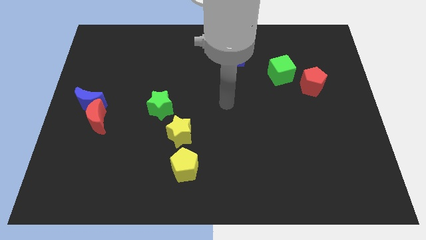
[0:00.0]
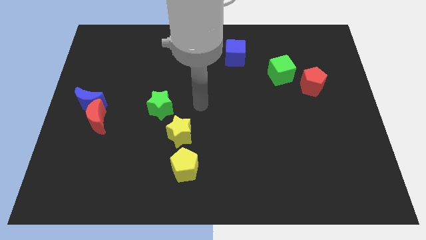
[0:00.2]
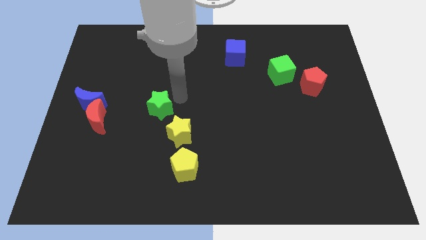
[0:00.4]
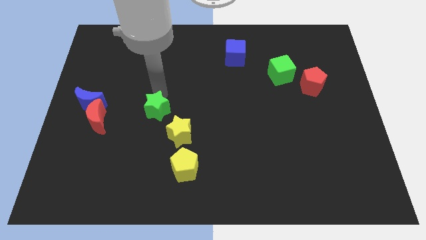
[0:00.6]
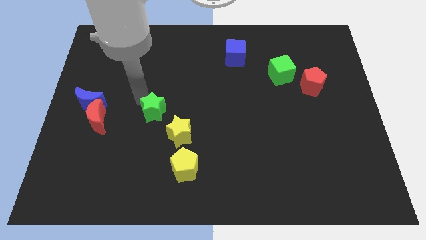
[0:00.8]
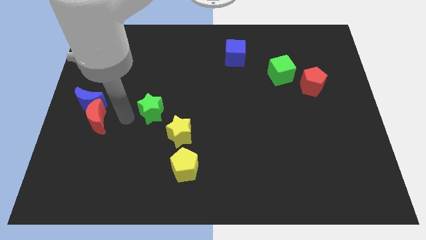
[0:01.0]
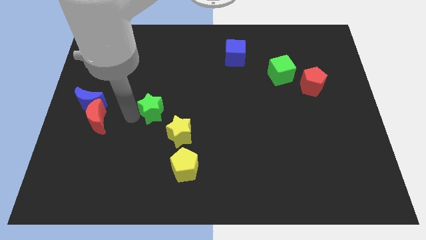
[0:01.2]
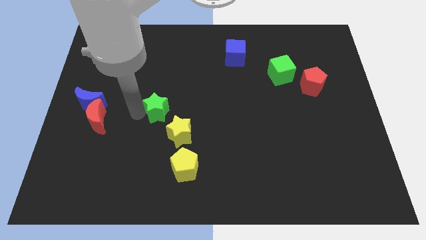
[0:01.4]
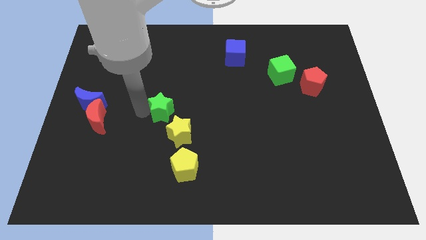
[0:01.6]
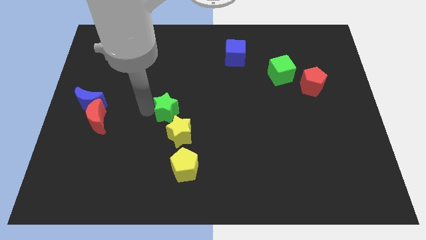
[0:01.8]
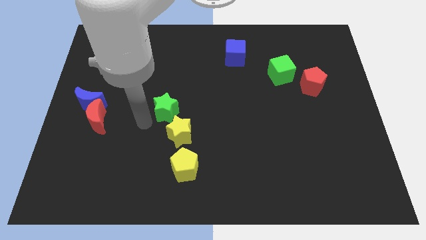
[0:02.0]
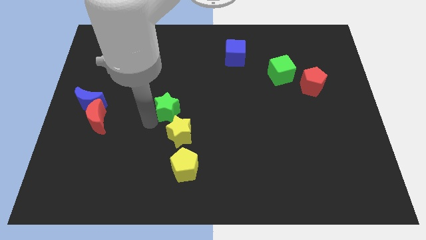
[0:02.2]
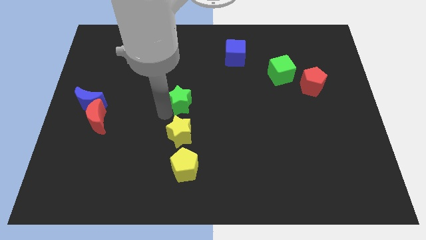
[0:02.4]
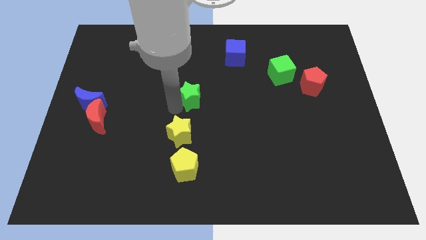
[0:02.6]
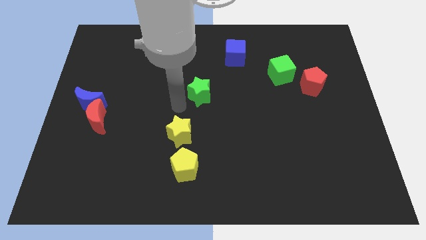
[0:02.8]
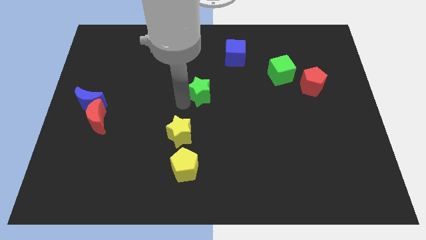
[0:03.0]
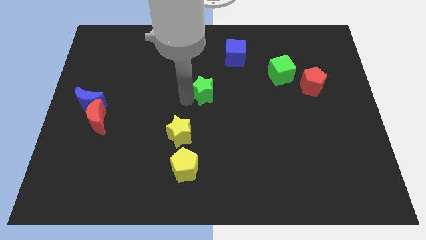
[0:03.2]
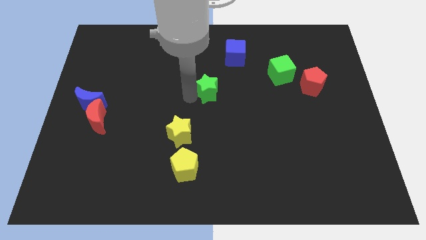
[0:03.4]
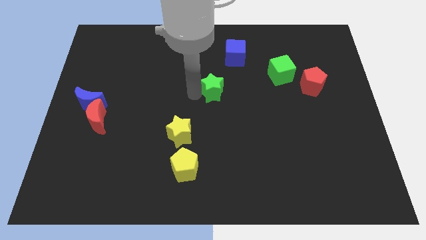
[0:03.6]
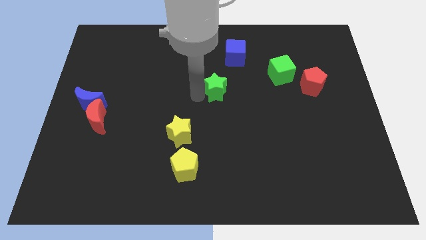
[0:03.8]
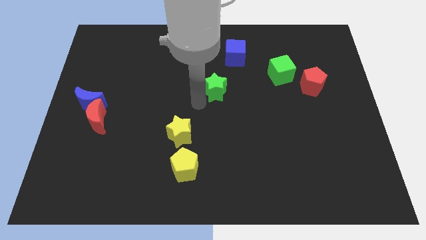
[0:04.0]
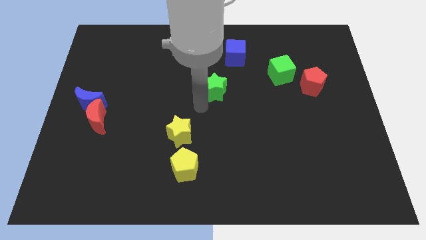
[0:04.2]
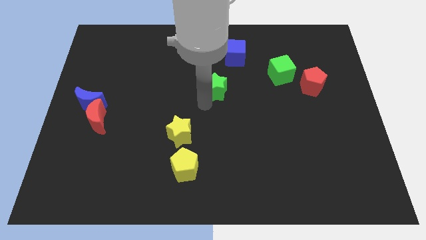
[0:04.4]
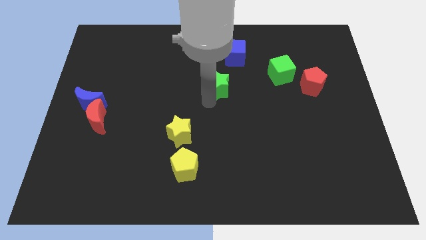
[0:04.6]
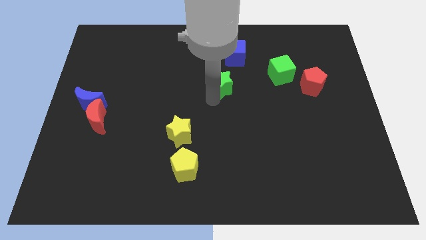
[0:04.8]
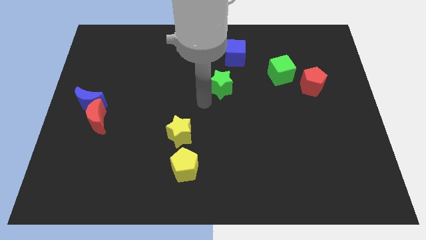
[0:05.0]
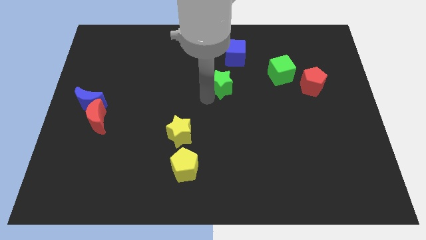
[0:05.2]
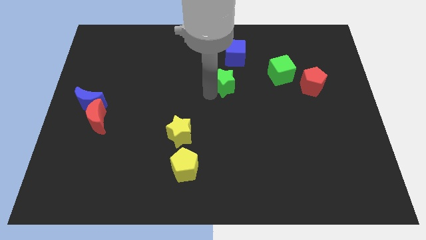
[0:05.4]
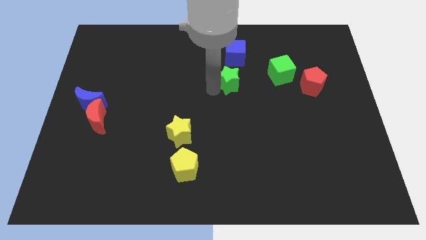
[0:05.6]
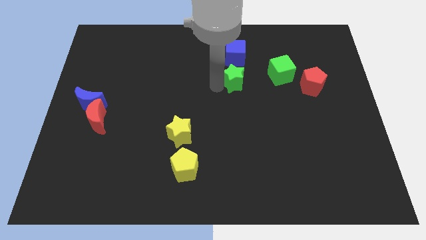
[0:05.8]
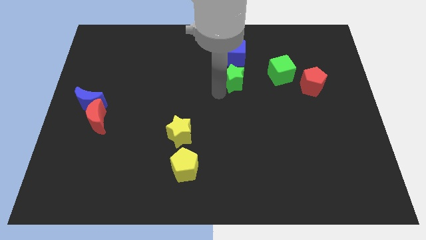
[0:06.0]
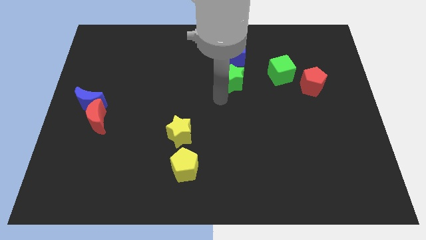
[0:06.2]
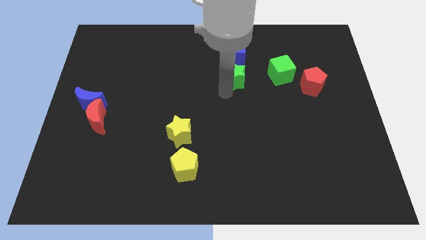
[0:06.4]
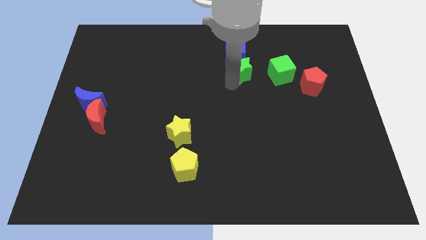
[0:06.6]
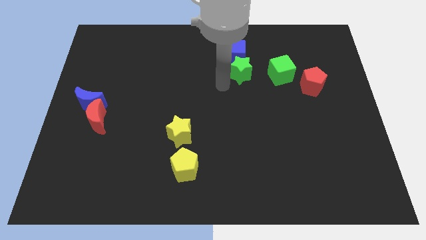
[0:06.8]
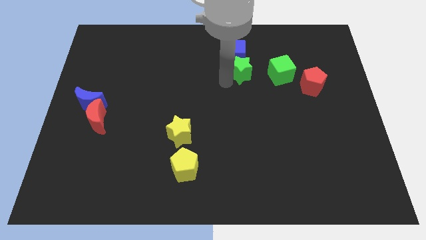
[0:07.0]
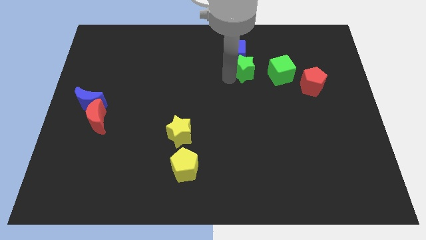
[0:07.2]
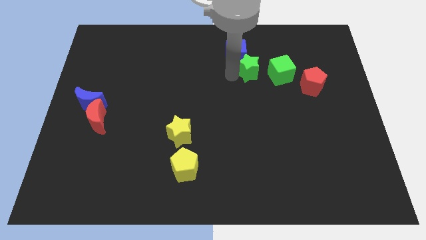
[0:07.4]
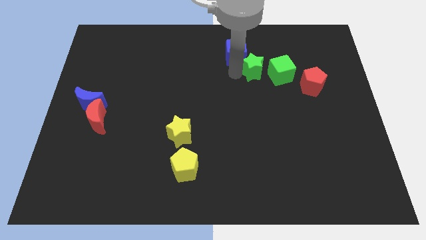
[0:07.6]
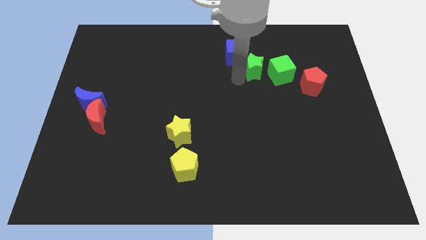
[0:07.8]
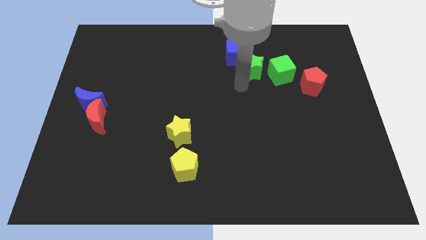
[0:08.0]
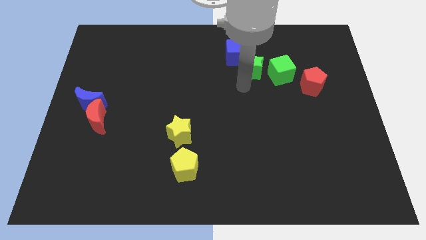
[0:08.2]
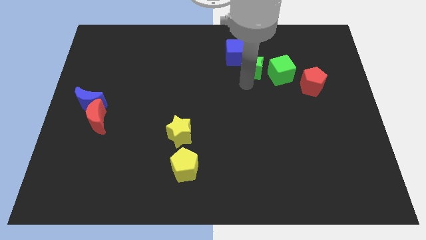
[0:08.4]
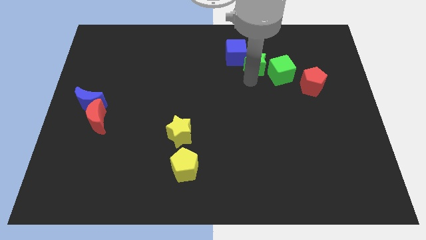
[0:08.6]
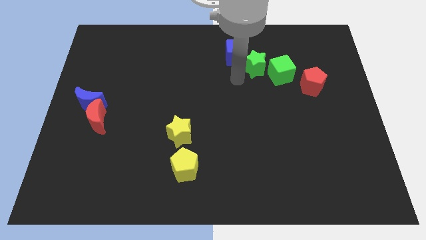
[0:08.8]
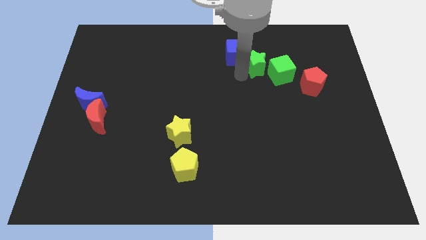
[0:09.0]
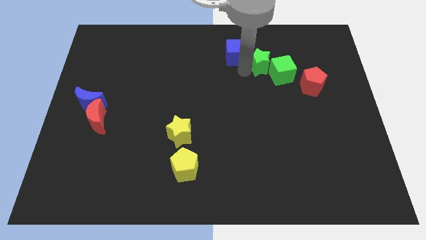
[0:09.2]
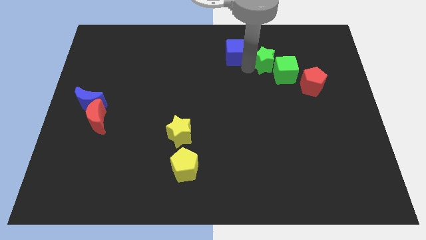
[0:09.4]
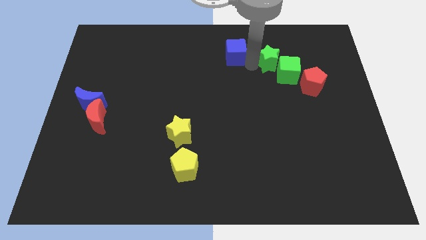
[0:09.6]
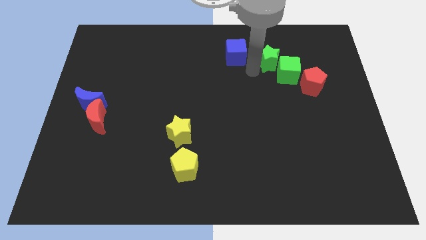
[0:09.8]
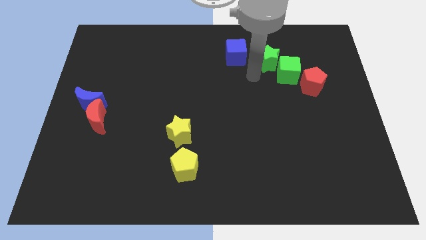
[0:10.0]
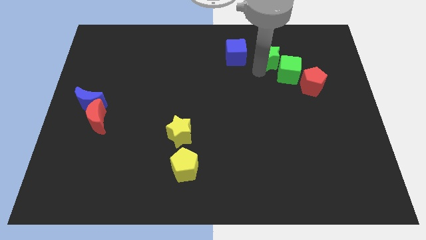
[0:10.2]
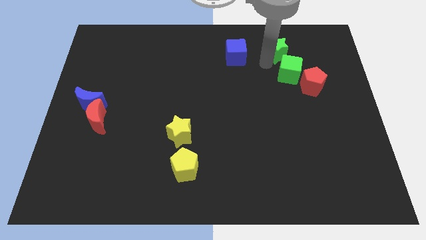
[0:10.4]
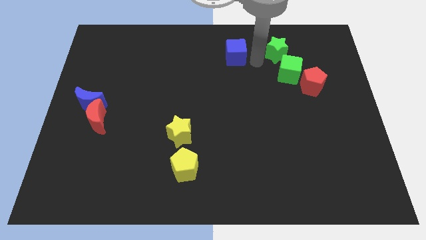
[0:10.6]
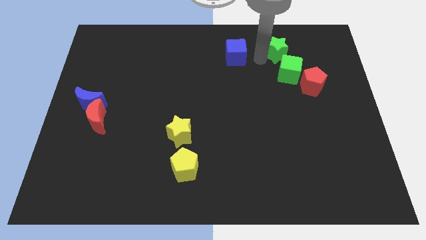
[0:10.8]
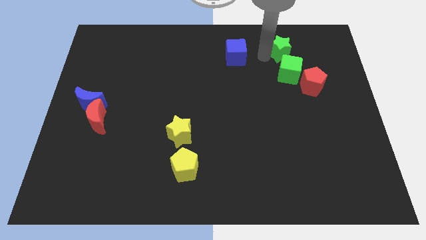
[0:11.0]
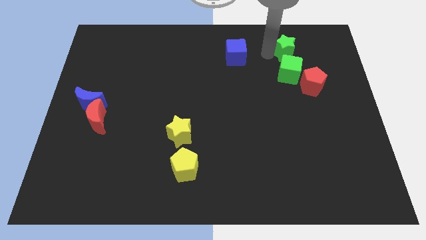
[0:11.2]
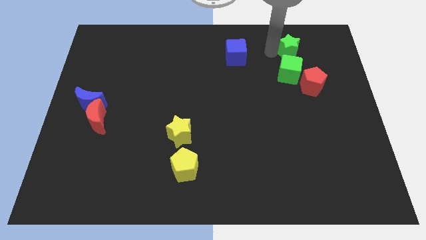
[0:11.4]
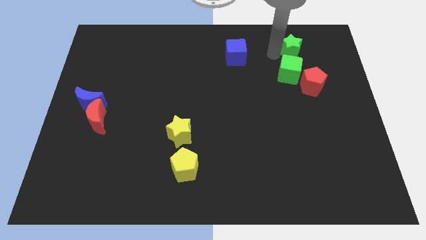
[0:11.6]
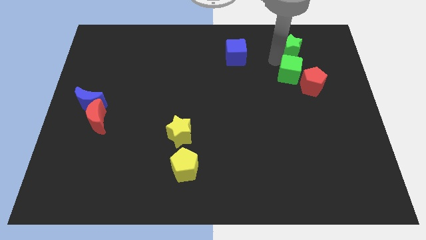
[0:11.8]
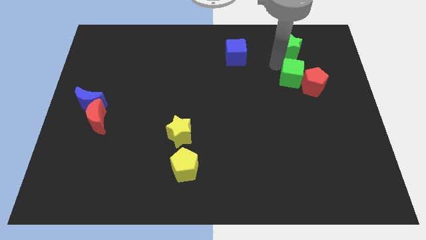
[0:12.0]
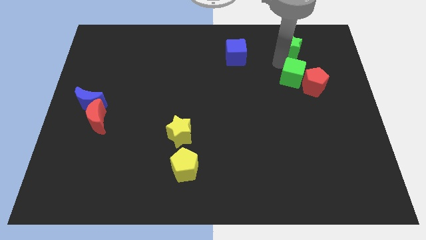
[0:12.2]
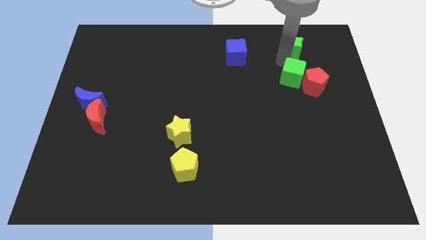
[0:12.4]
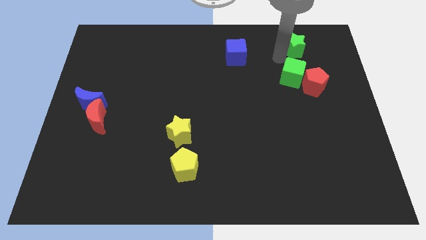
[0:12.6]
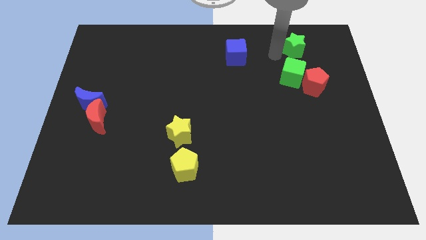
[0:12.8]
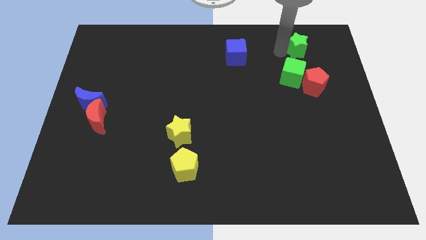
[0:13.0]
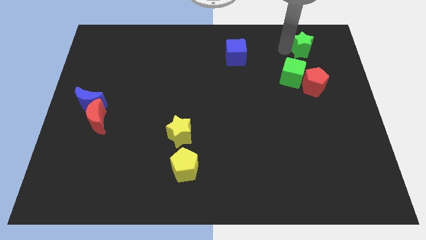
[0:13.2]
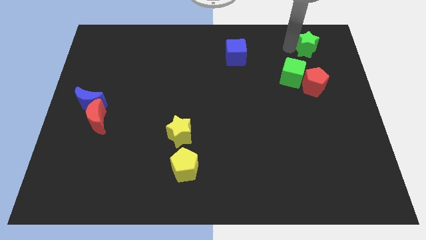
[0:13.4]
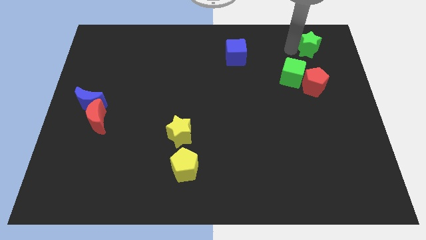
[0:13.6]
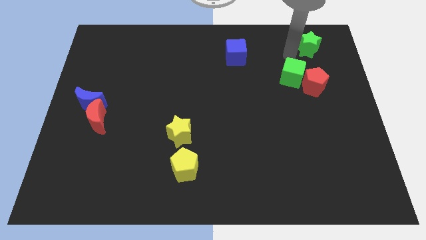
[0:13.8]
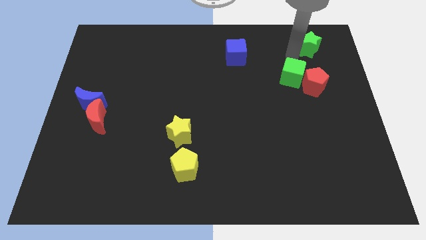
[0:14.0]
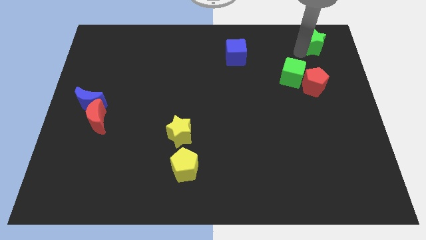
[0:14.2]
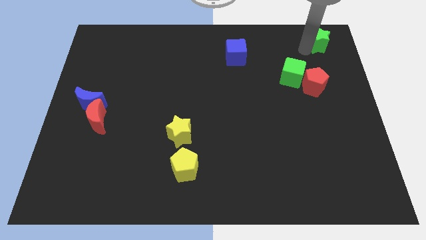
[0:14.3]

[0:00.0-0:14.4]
move the green star to the upper right corner
